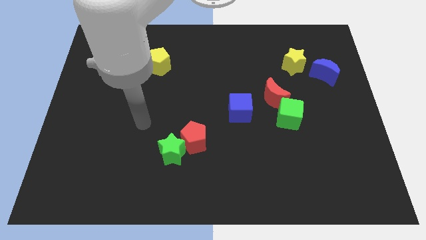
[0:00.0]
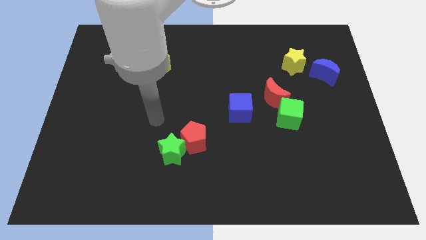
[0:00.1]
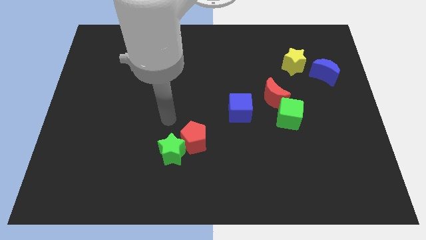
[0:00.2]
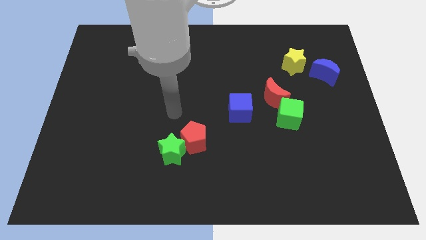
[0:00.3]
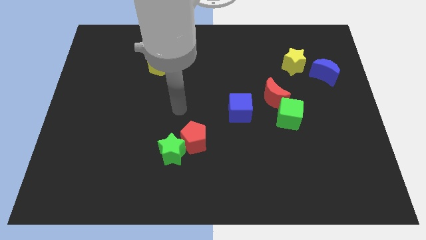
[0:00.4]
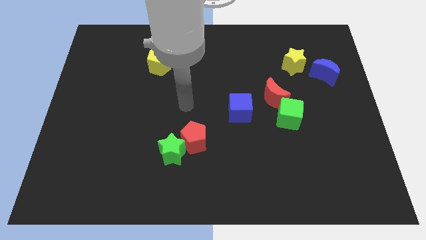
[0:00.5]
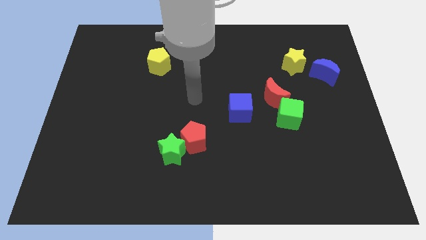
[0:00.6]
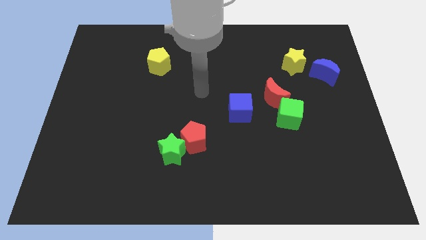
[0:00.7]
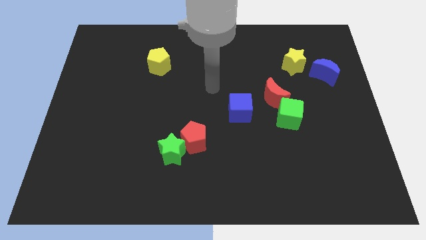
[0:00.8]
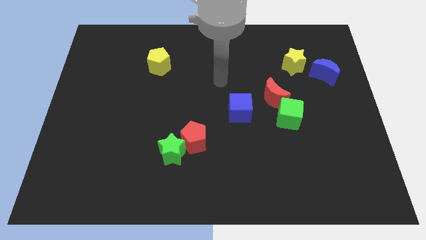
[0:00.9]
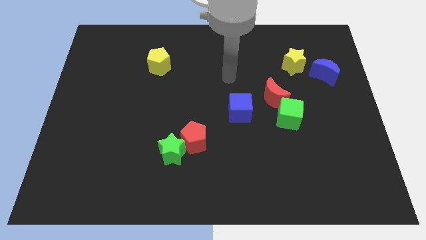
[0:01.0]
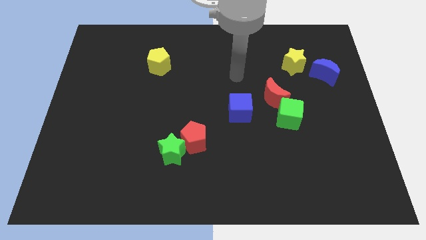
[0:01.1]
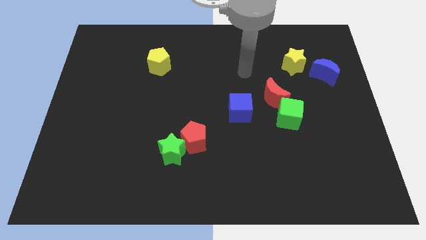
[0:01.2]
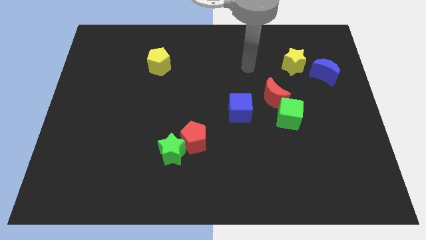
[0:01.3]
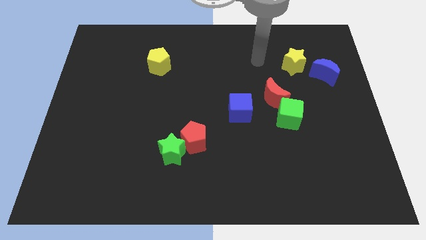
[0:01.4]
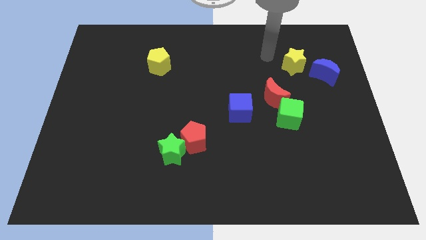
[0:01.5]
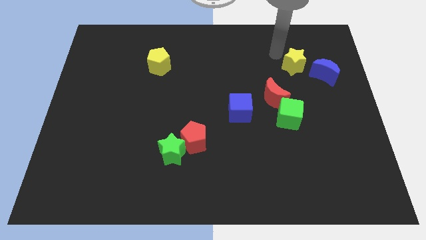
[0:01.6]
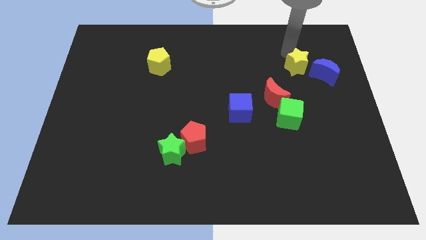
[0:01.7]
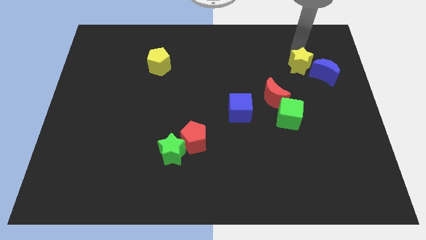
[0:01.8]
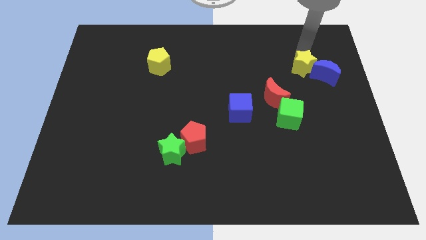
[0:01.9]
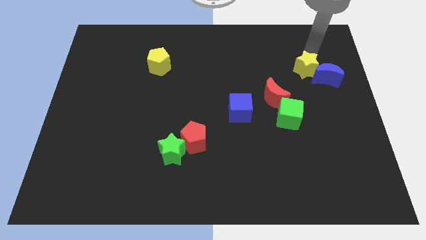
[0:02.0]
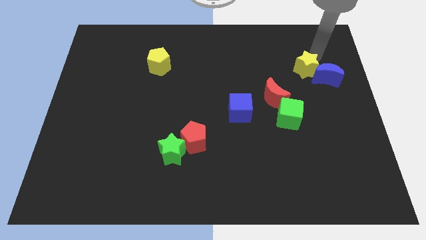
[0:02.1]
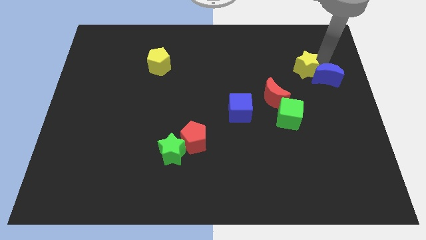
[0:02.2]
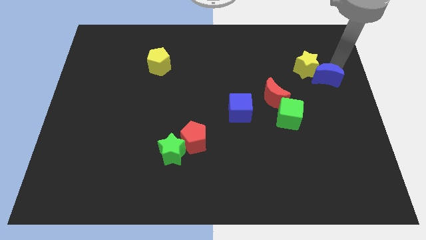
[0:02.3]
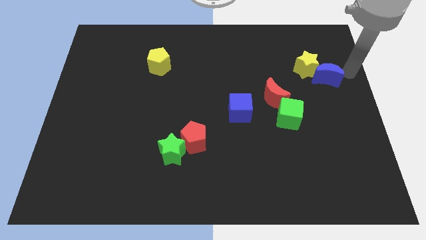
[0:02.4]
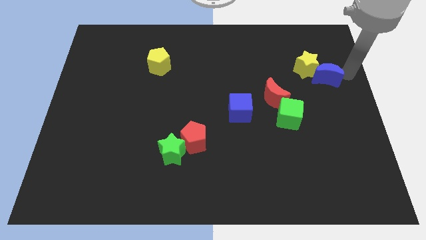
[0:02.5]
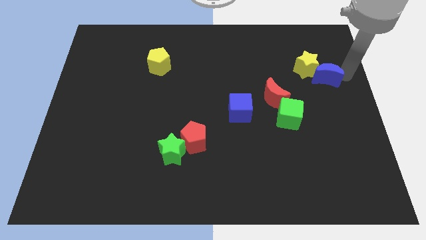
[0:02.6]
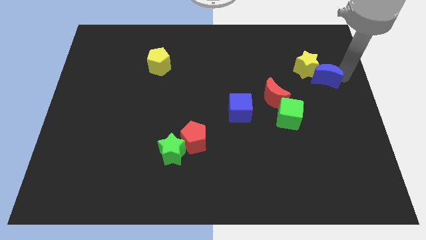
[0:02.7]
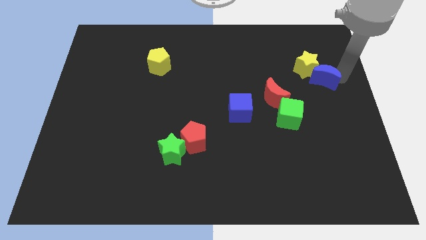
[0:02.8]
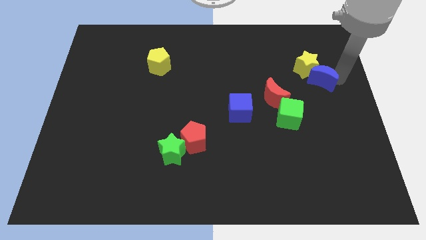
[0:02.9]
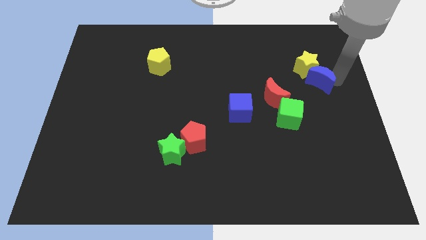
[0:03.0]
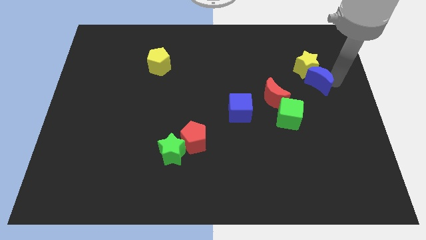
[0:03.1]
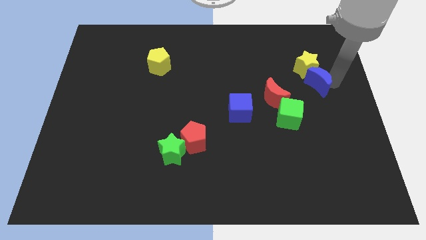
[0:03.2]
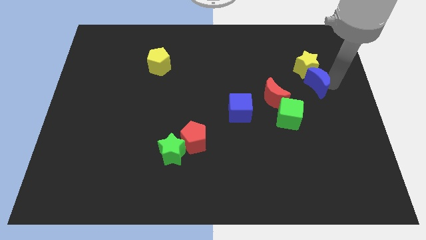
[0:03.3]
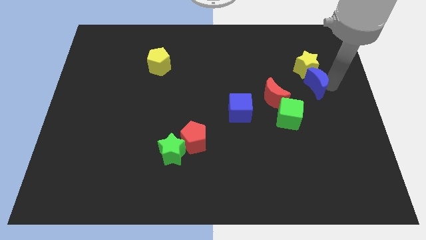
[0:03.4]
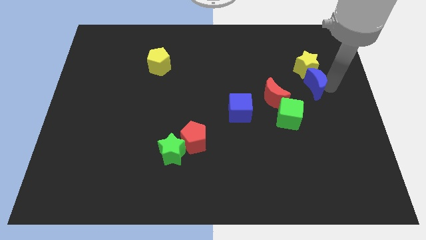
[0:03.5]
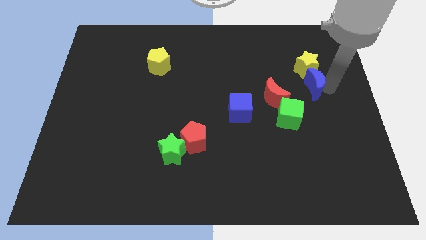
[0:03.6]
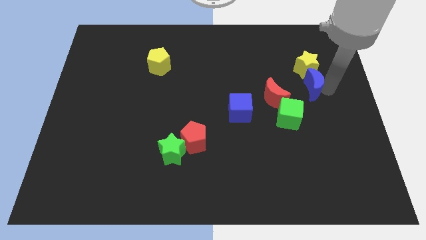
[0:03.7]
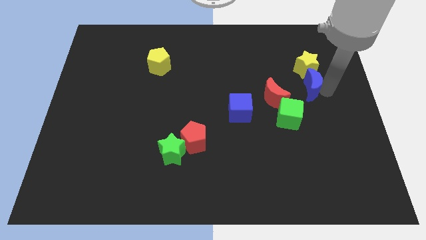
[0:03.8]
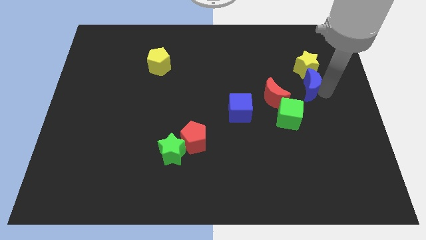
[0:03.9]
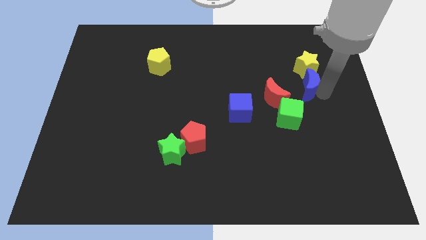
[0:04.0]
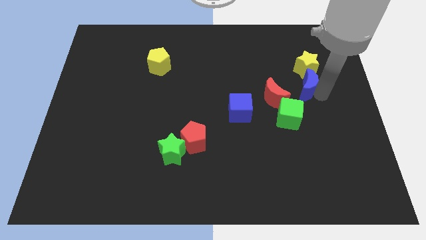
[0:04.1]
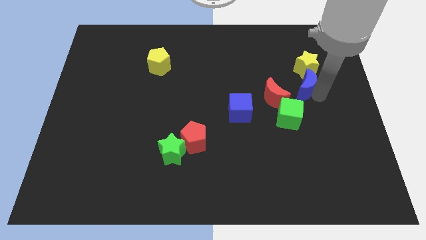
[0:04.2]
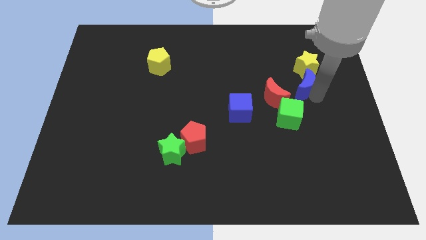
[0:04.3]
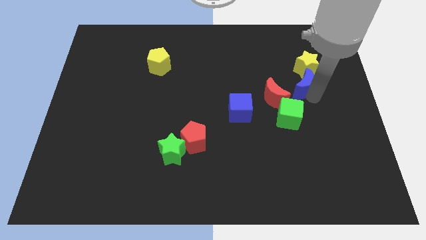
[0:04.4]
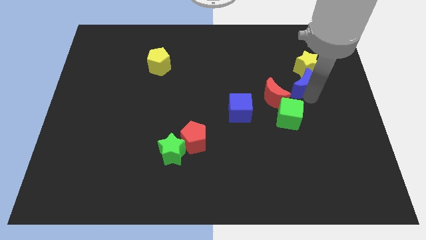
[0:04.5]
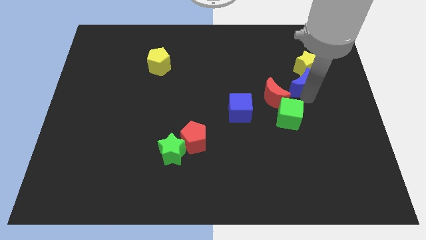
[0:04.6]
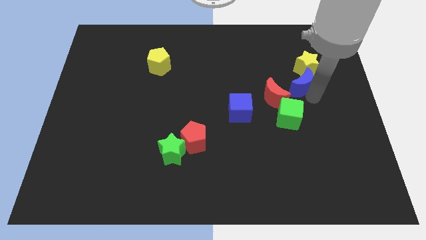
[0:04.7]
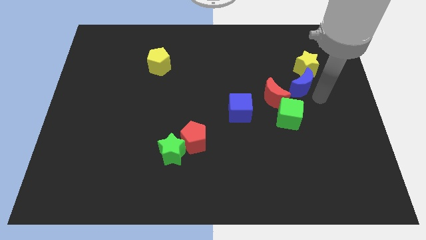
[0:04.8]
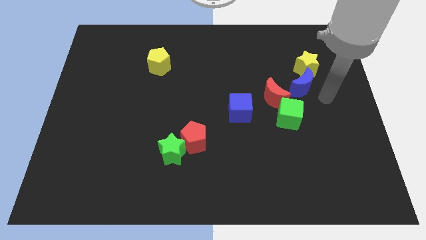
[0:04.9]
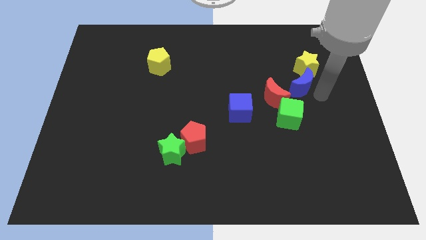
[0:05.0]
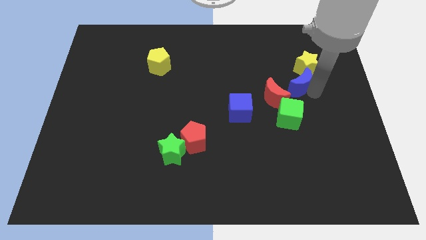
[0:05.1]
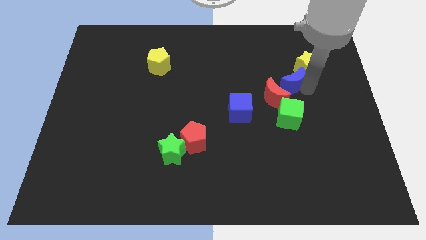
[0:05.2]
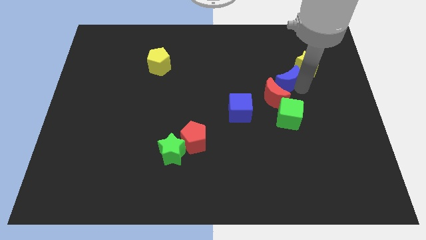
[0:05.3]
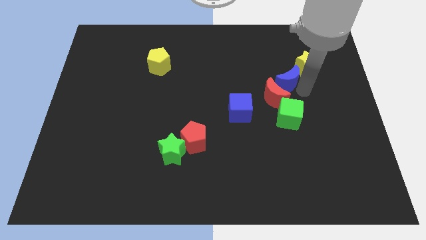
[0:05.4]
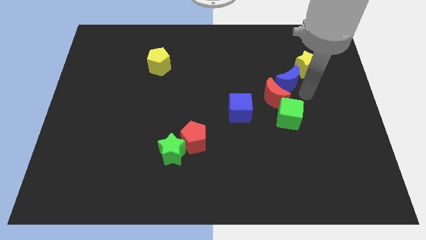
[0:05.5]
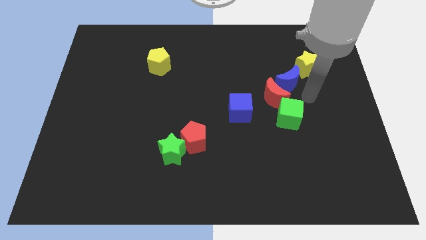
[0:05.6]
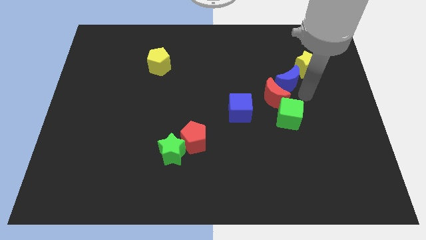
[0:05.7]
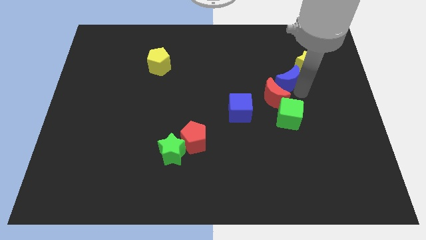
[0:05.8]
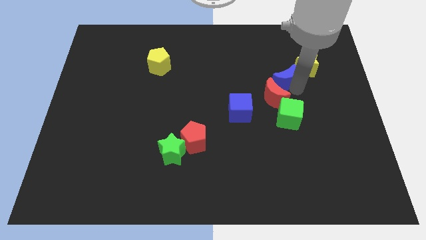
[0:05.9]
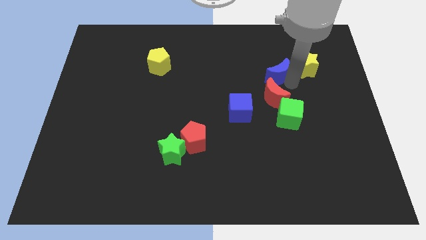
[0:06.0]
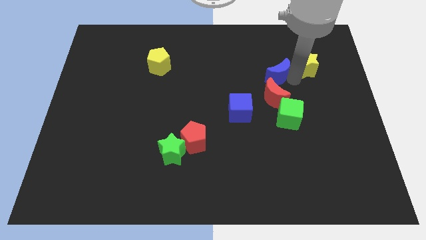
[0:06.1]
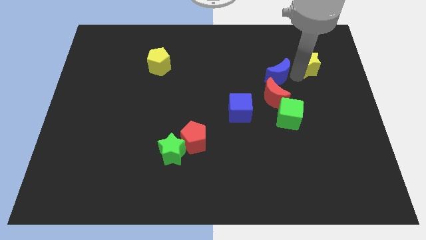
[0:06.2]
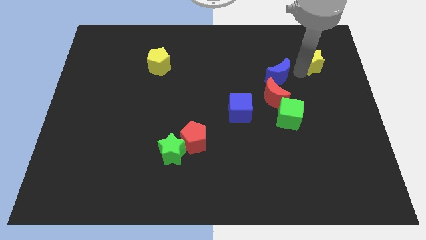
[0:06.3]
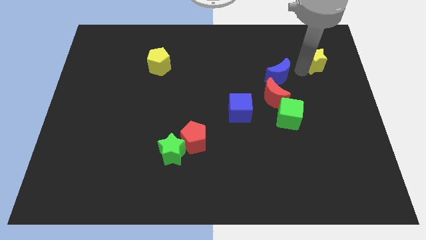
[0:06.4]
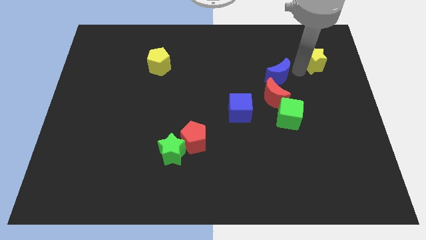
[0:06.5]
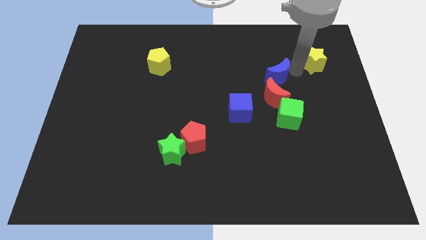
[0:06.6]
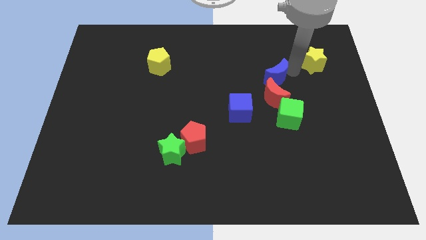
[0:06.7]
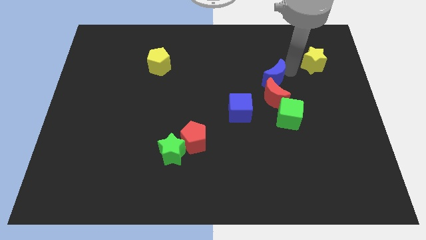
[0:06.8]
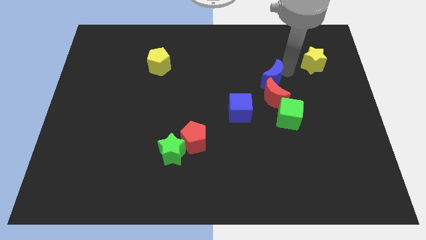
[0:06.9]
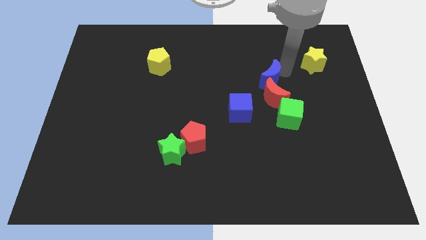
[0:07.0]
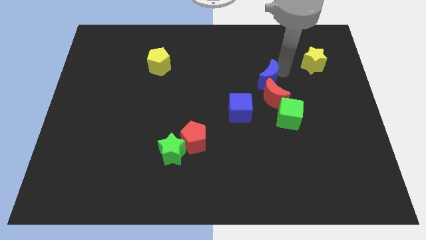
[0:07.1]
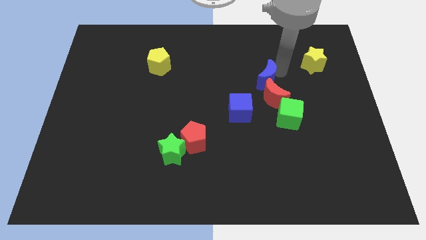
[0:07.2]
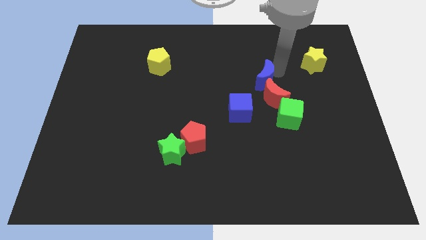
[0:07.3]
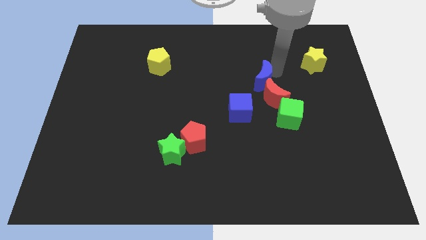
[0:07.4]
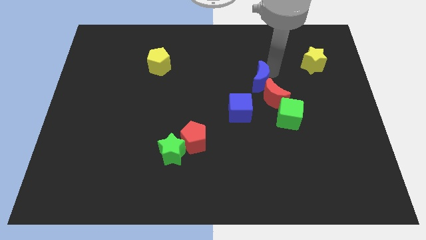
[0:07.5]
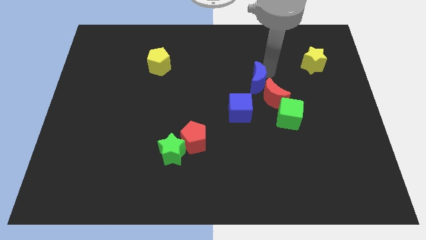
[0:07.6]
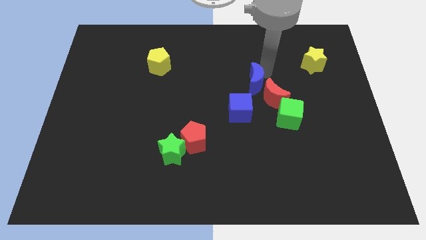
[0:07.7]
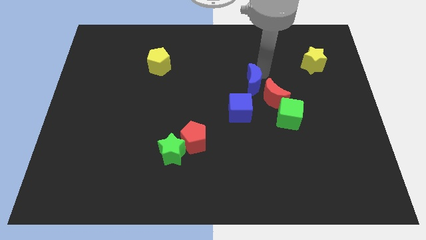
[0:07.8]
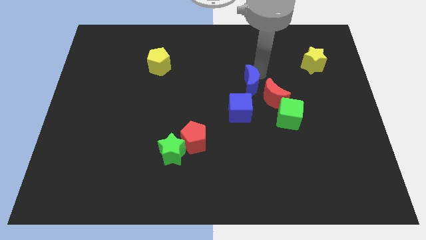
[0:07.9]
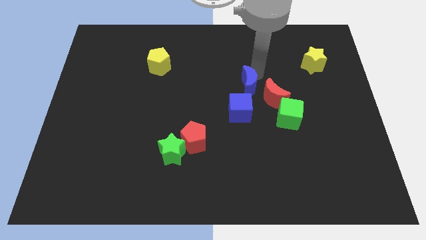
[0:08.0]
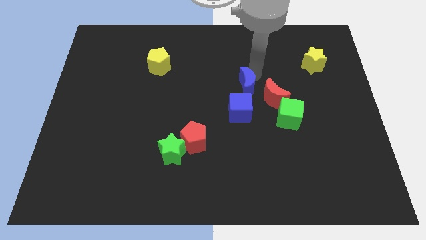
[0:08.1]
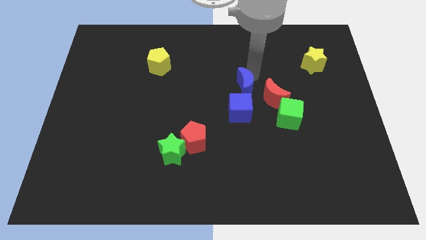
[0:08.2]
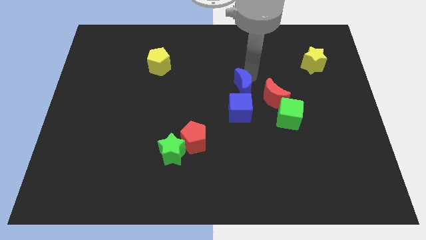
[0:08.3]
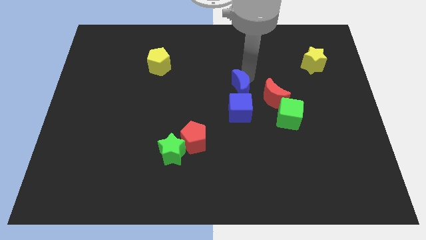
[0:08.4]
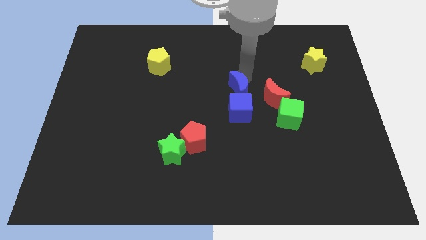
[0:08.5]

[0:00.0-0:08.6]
move the blue moon diagonally up and to the left of the blue cube
